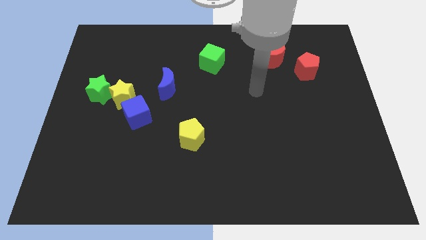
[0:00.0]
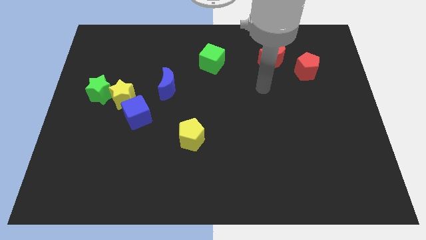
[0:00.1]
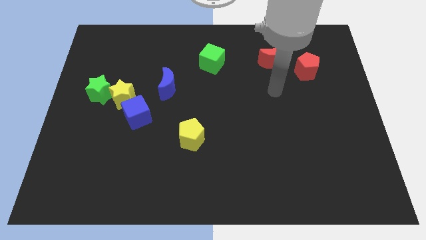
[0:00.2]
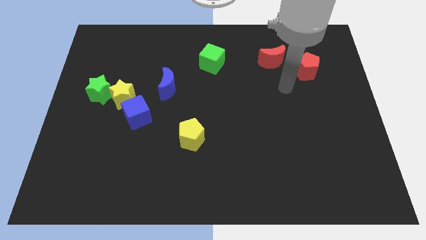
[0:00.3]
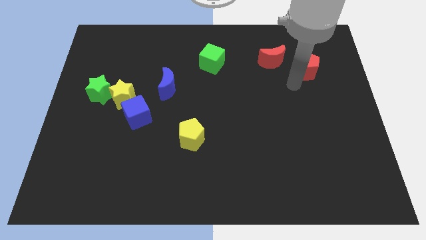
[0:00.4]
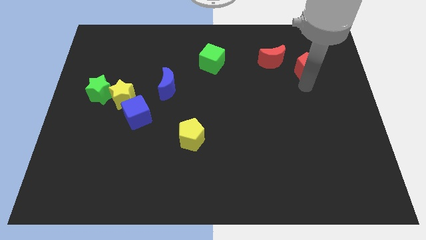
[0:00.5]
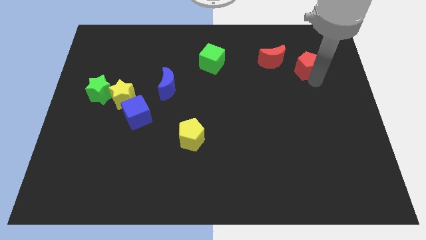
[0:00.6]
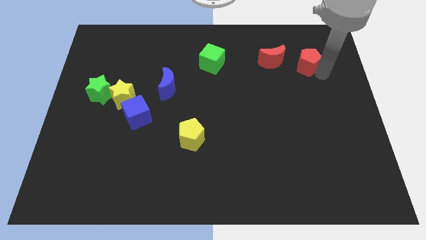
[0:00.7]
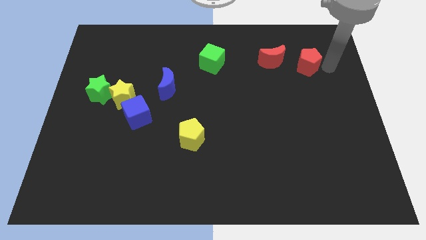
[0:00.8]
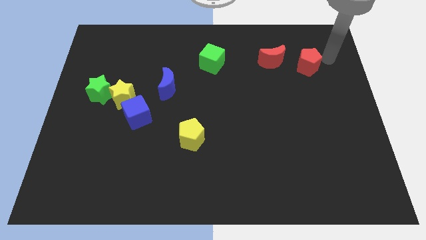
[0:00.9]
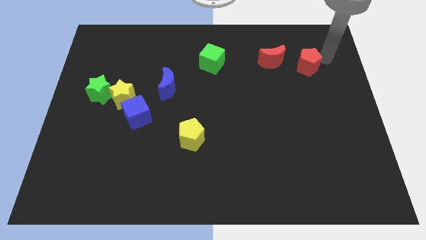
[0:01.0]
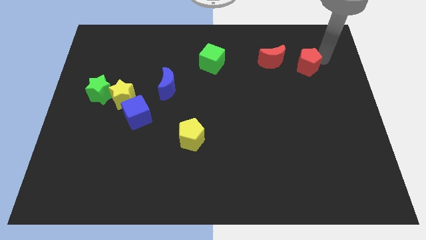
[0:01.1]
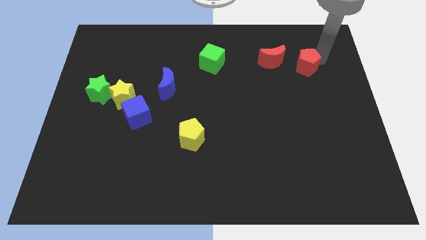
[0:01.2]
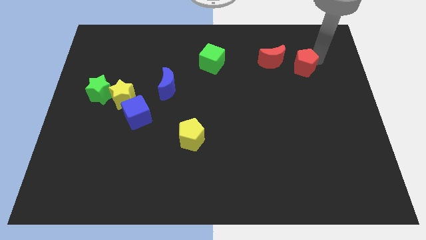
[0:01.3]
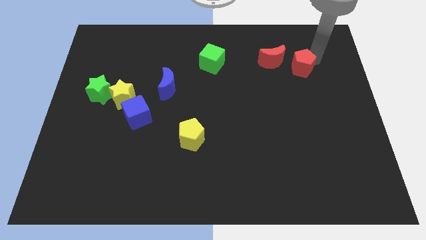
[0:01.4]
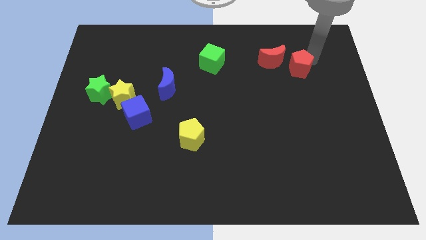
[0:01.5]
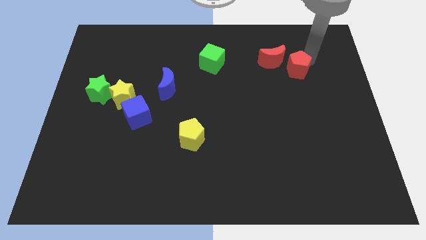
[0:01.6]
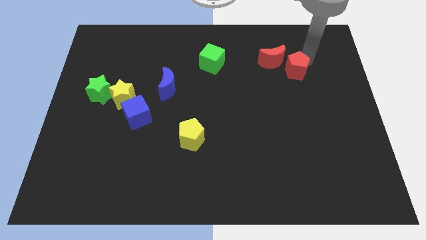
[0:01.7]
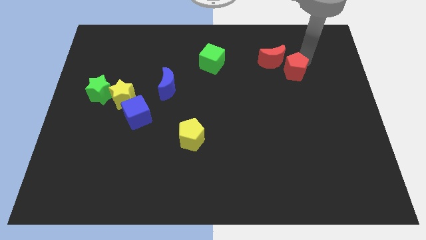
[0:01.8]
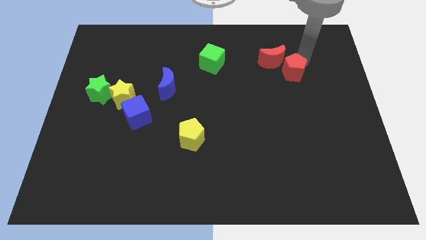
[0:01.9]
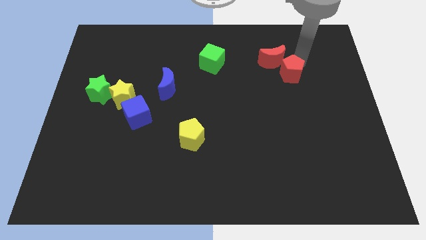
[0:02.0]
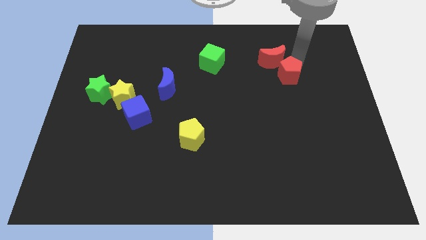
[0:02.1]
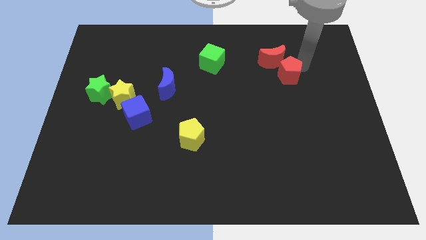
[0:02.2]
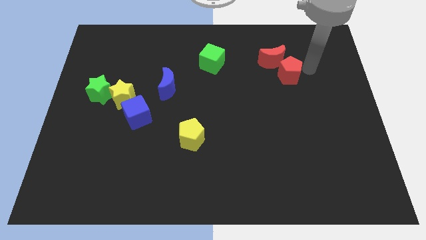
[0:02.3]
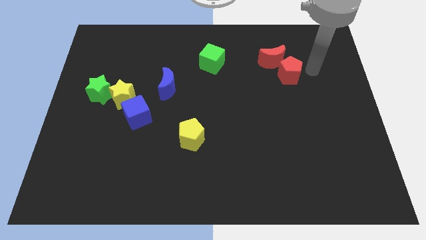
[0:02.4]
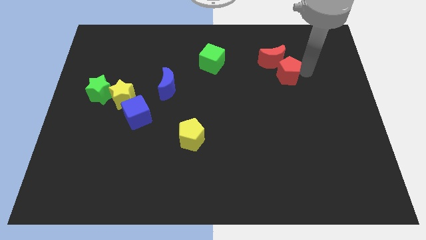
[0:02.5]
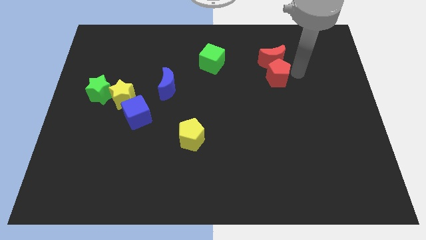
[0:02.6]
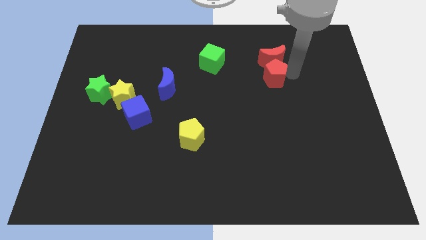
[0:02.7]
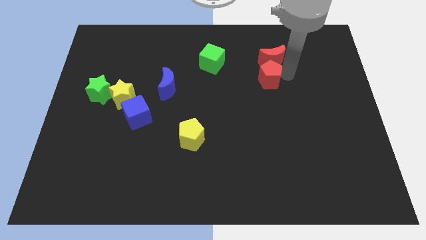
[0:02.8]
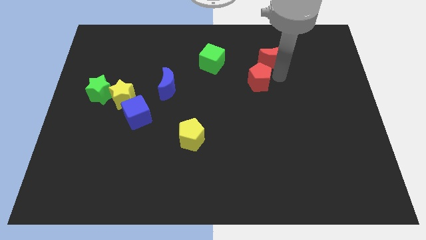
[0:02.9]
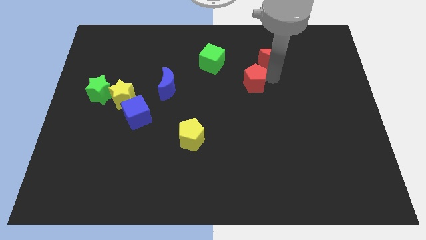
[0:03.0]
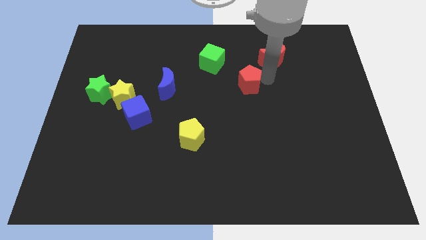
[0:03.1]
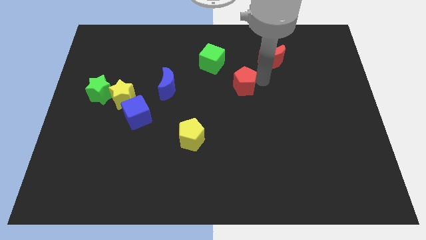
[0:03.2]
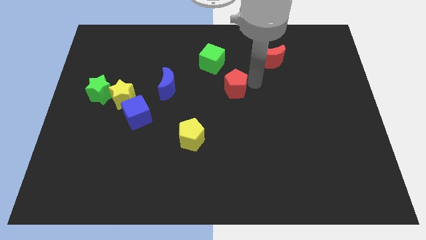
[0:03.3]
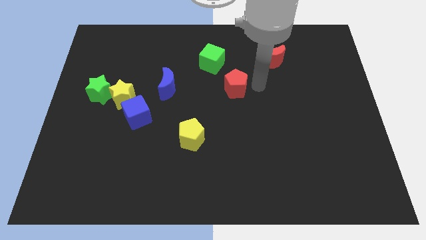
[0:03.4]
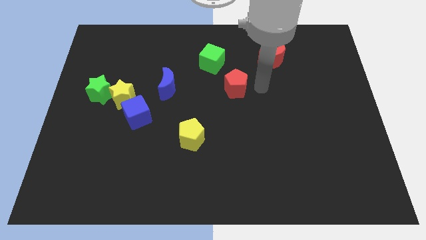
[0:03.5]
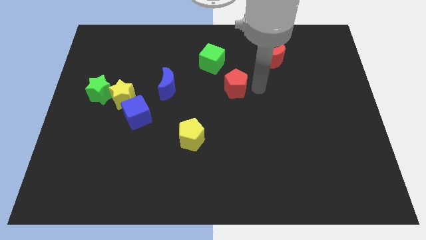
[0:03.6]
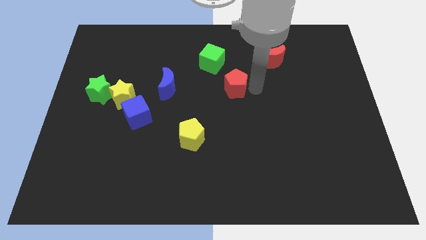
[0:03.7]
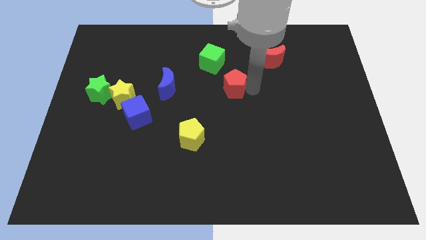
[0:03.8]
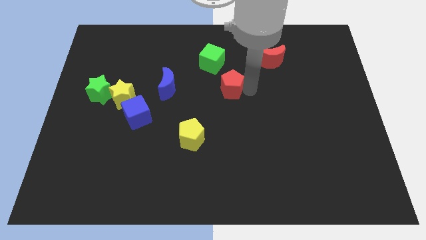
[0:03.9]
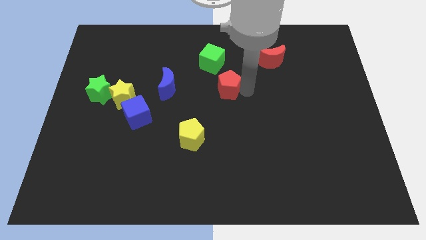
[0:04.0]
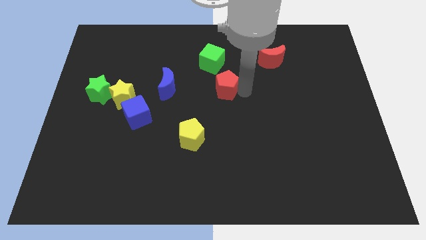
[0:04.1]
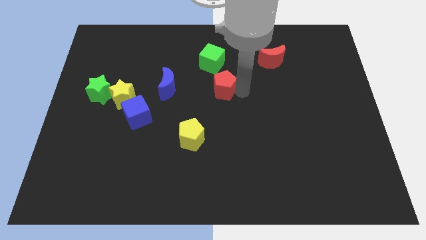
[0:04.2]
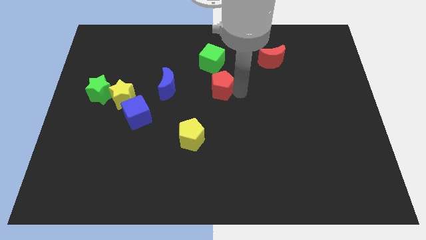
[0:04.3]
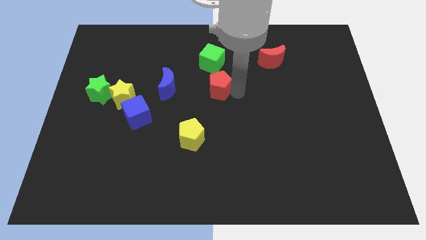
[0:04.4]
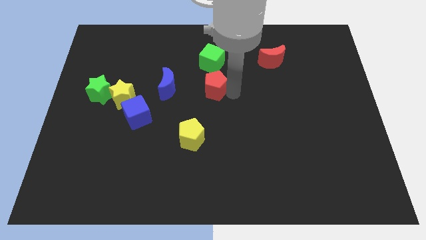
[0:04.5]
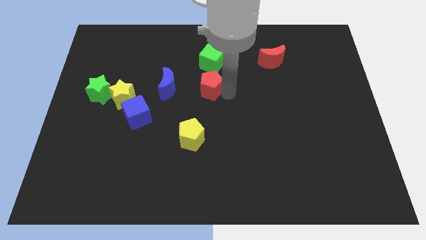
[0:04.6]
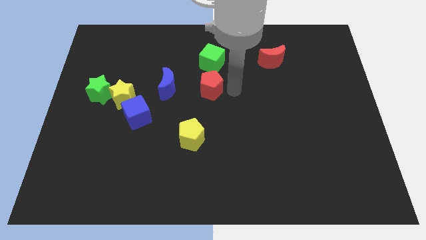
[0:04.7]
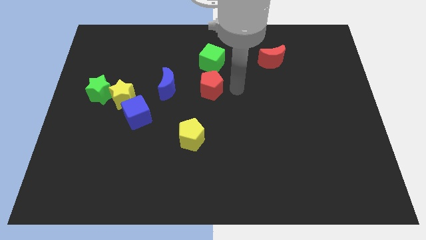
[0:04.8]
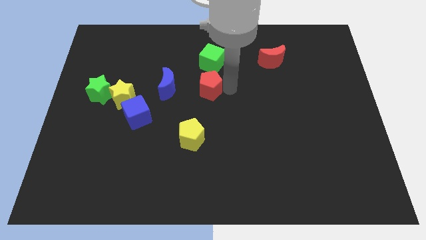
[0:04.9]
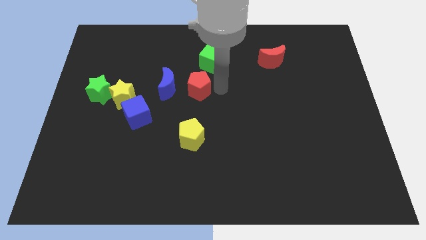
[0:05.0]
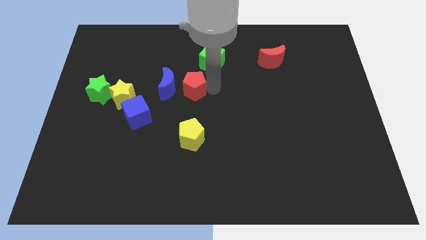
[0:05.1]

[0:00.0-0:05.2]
slide the red pentagon close to the blue moon

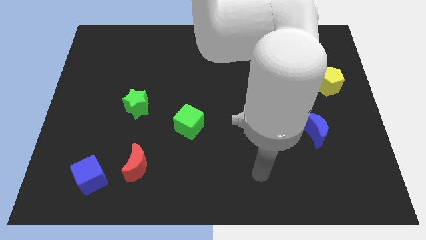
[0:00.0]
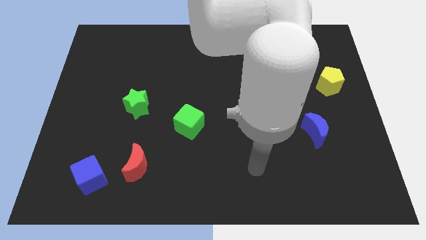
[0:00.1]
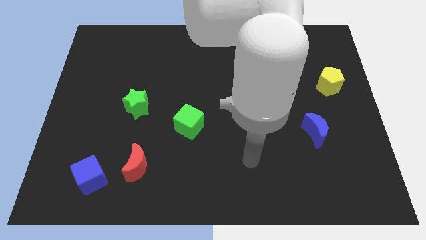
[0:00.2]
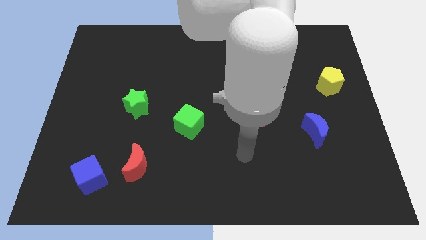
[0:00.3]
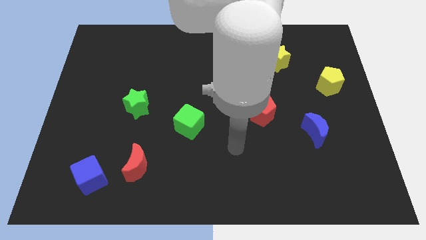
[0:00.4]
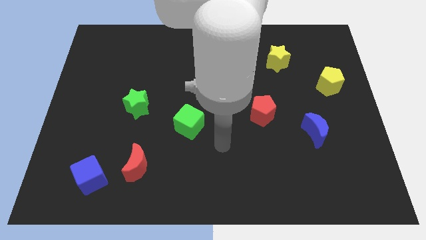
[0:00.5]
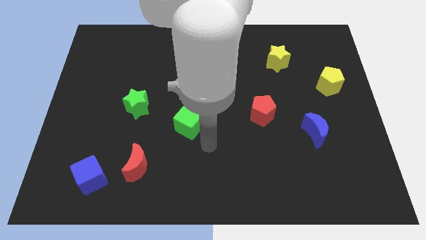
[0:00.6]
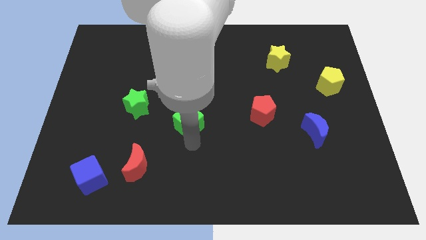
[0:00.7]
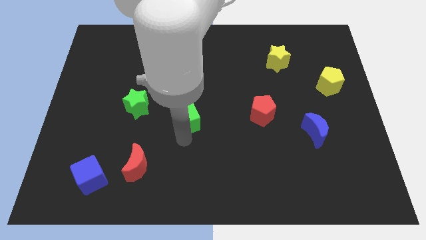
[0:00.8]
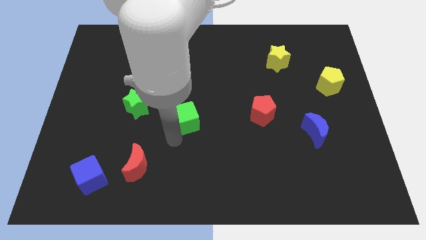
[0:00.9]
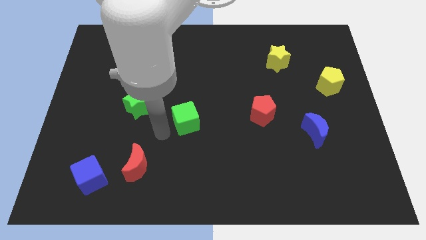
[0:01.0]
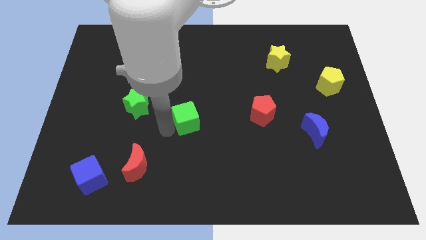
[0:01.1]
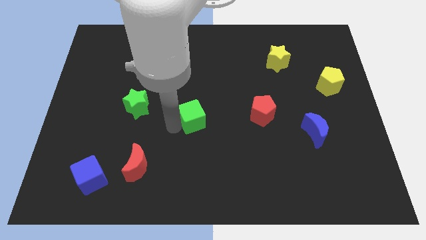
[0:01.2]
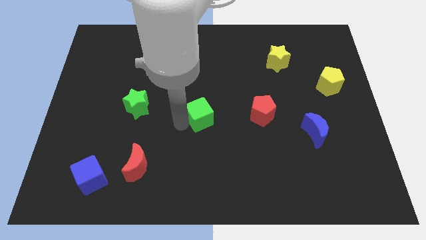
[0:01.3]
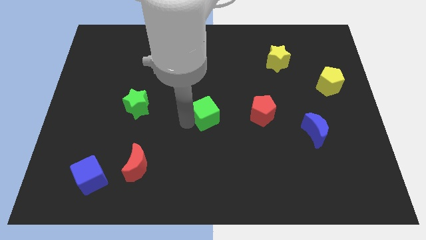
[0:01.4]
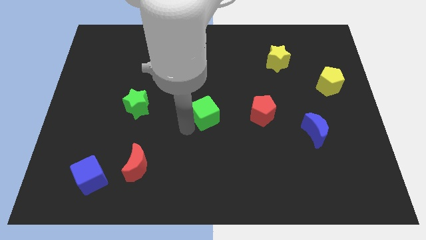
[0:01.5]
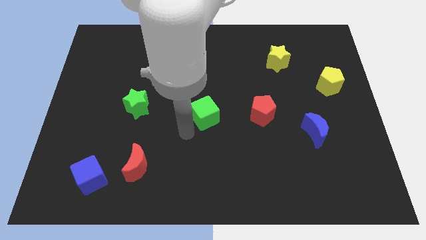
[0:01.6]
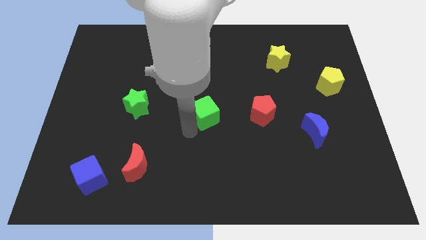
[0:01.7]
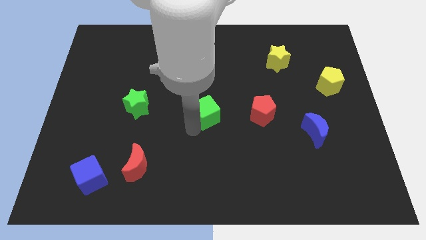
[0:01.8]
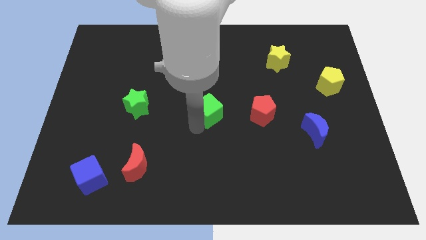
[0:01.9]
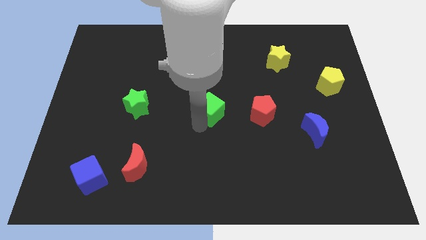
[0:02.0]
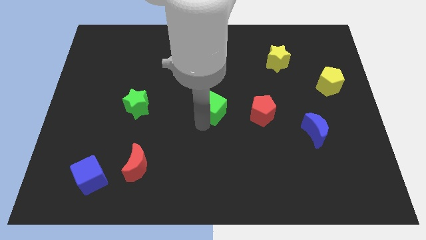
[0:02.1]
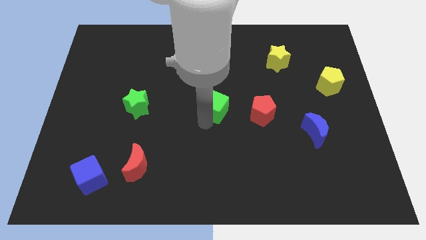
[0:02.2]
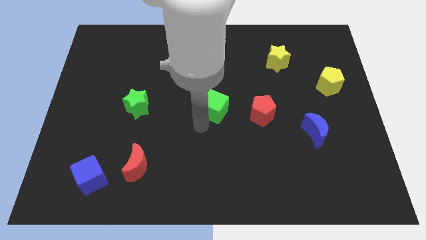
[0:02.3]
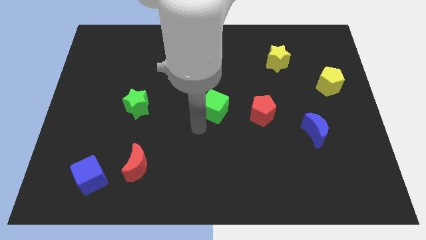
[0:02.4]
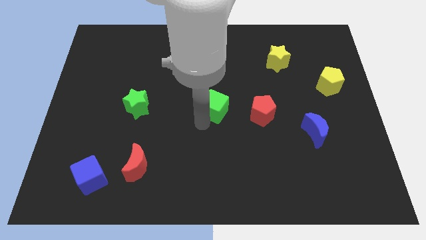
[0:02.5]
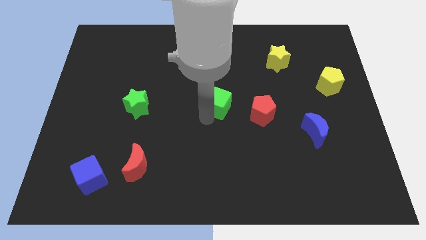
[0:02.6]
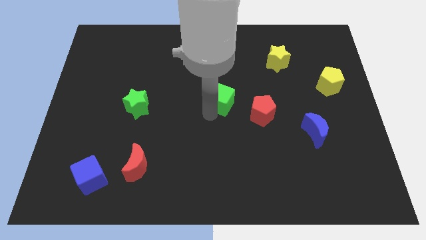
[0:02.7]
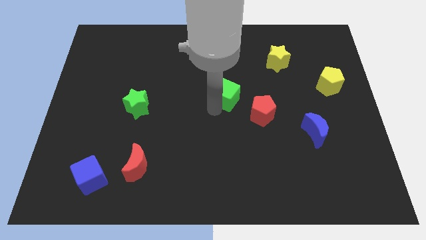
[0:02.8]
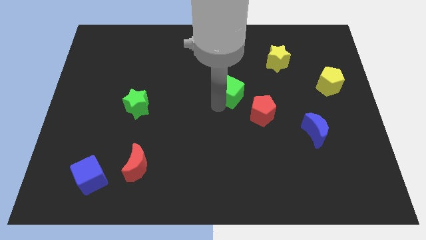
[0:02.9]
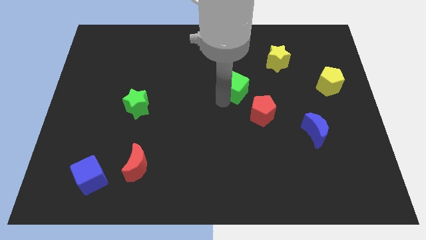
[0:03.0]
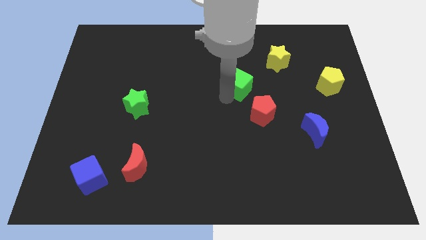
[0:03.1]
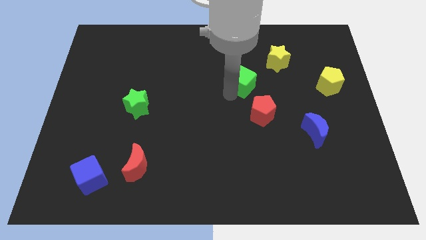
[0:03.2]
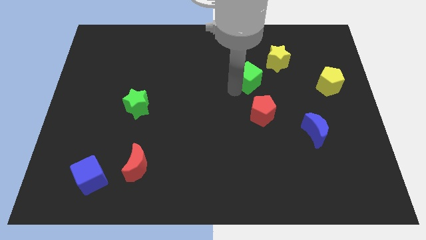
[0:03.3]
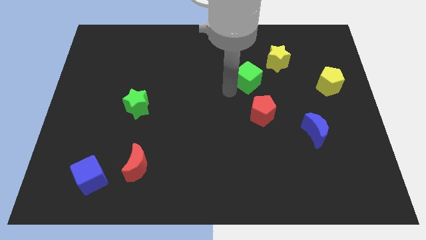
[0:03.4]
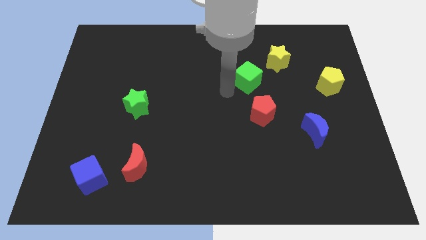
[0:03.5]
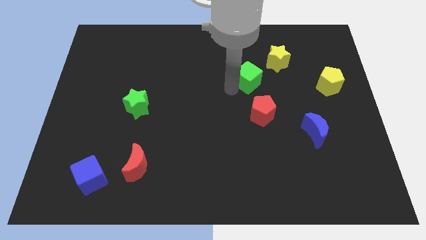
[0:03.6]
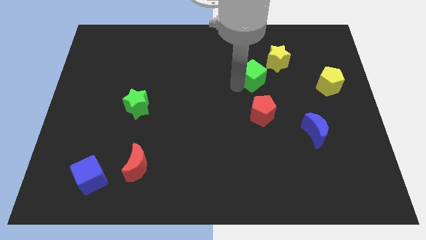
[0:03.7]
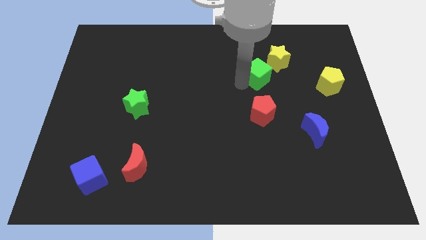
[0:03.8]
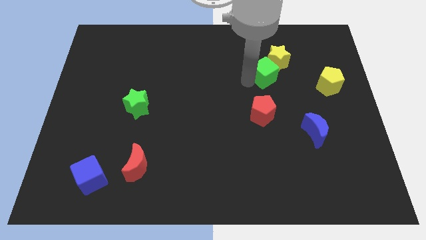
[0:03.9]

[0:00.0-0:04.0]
put the green cube towards the yellow star
